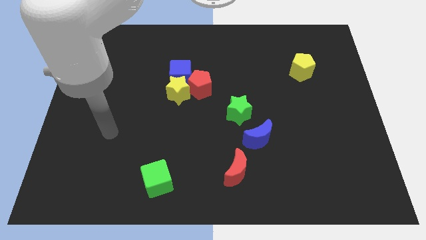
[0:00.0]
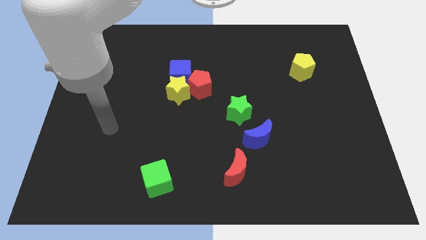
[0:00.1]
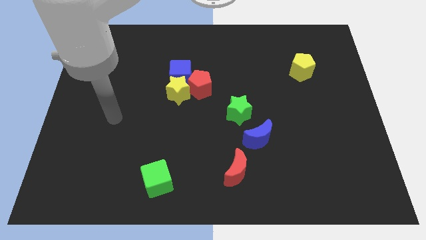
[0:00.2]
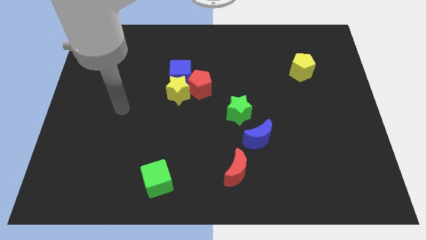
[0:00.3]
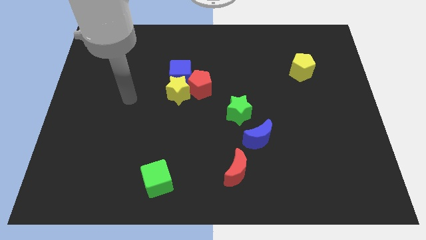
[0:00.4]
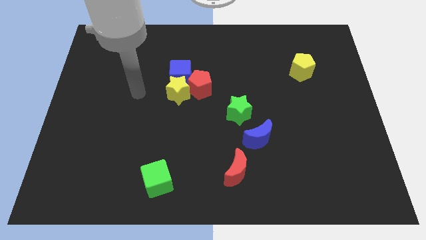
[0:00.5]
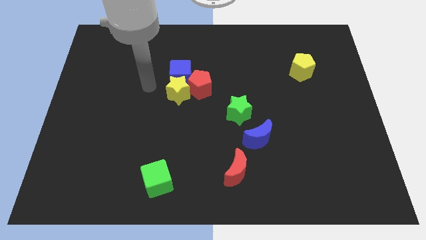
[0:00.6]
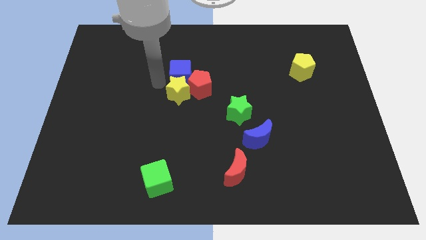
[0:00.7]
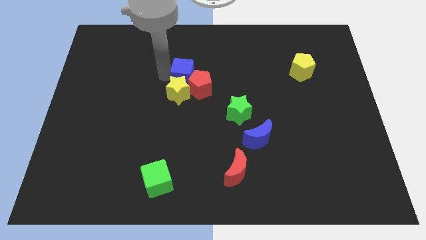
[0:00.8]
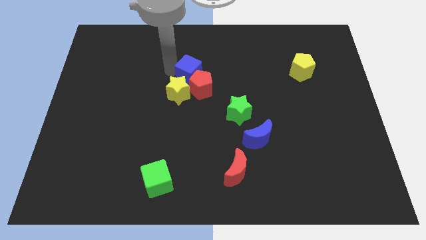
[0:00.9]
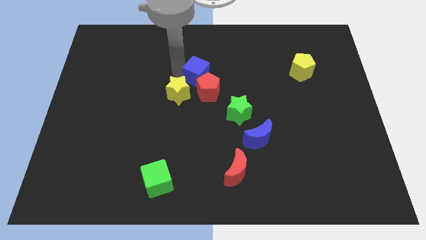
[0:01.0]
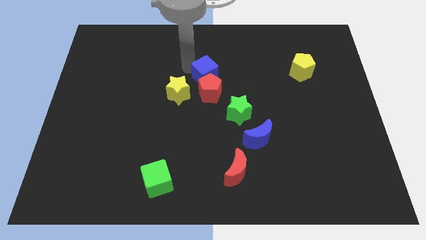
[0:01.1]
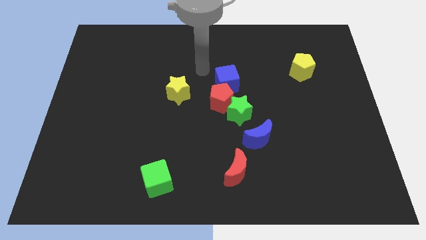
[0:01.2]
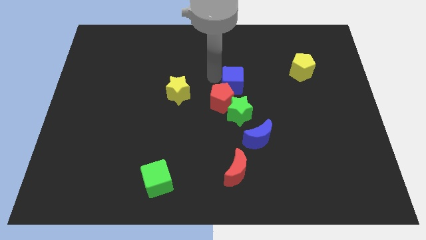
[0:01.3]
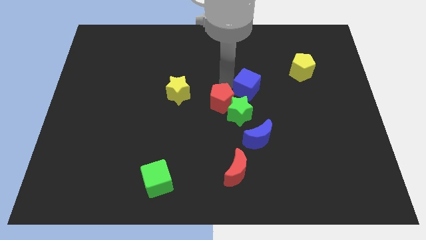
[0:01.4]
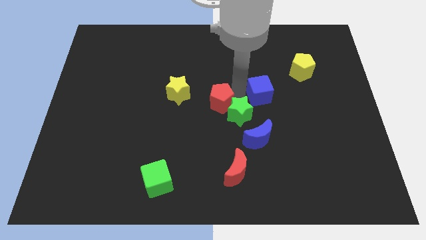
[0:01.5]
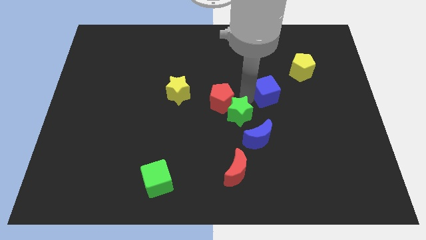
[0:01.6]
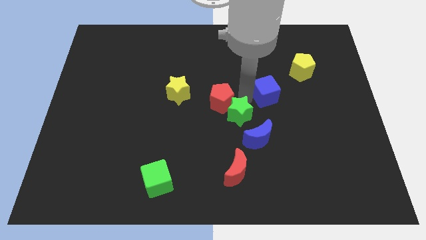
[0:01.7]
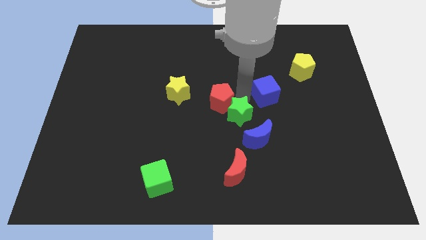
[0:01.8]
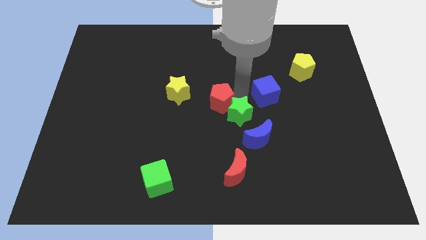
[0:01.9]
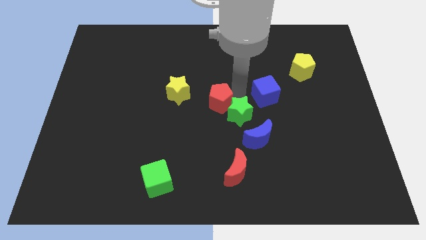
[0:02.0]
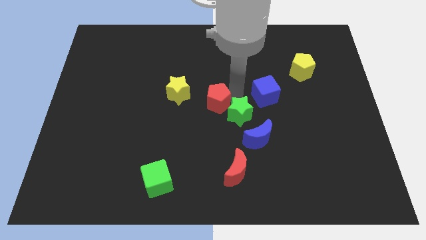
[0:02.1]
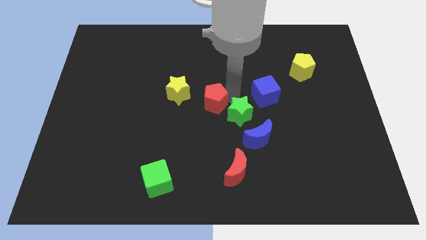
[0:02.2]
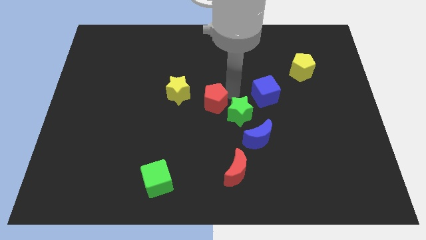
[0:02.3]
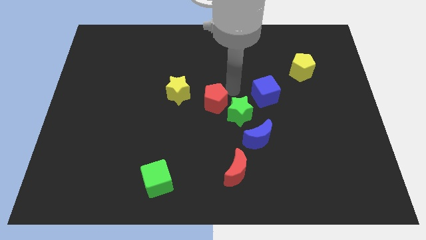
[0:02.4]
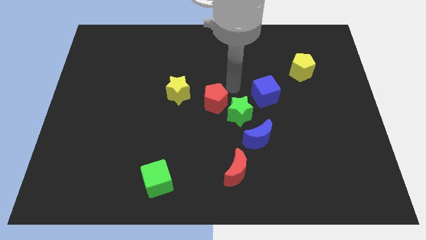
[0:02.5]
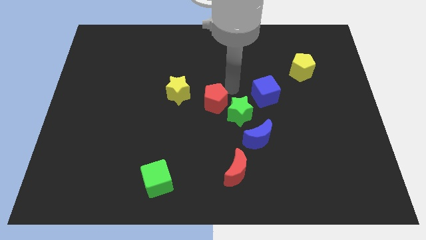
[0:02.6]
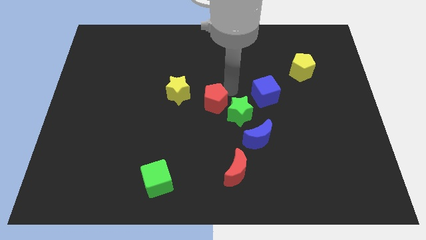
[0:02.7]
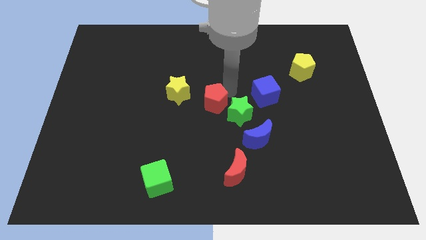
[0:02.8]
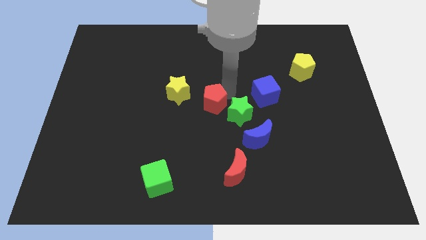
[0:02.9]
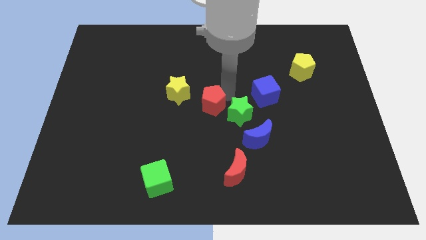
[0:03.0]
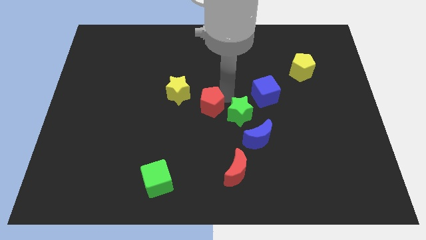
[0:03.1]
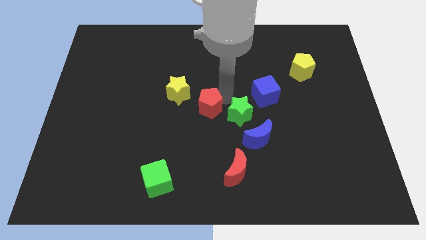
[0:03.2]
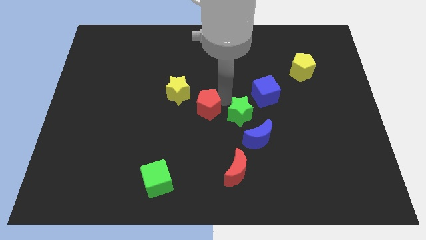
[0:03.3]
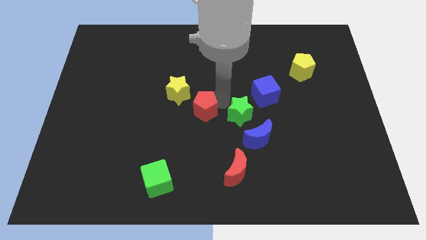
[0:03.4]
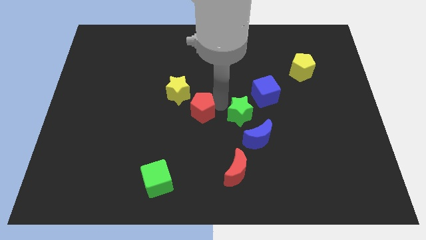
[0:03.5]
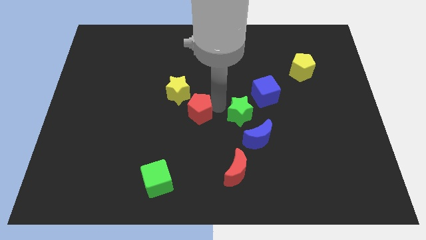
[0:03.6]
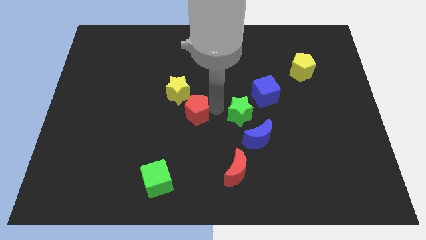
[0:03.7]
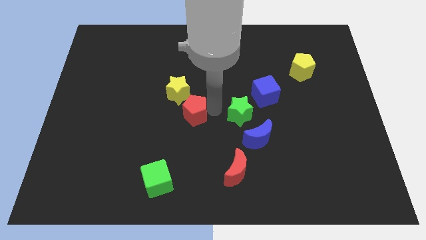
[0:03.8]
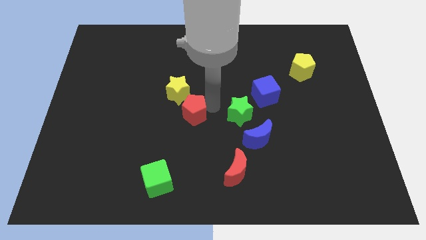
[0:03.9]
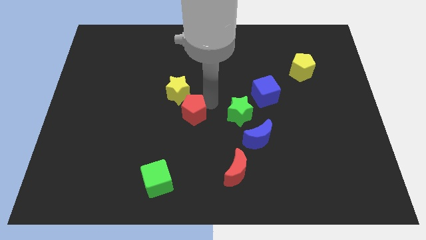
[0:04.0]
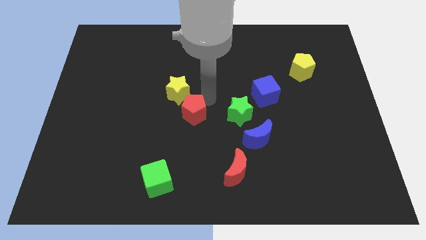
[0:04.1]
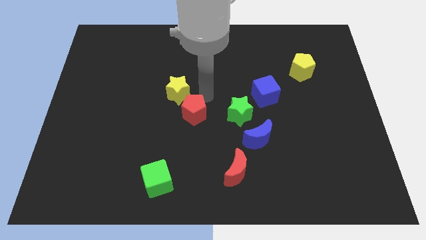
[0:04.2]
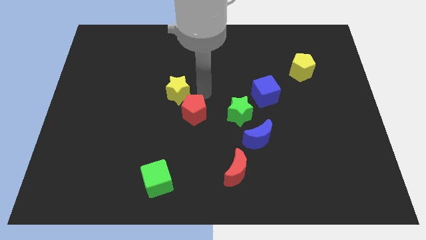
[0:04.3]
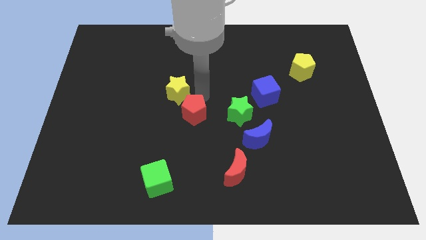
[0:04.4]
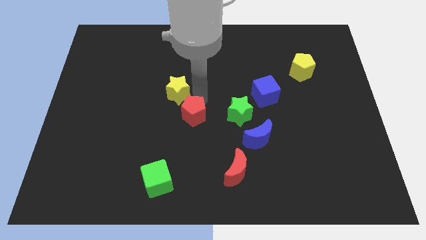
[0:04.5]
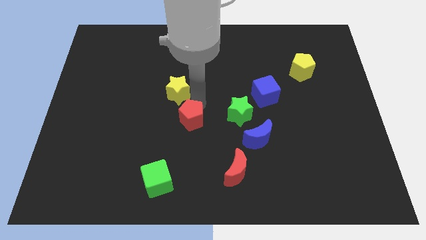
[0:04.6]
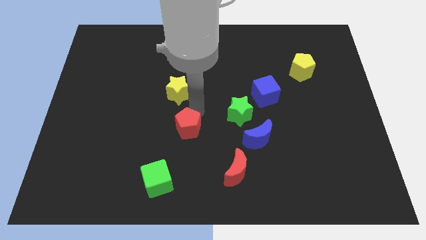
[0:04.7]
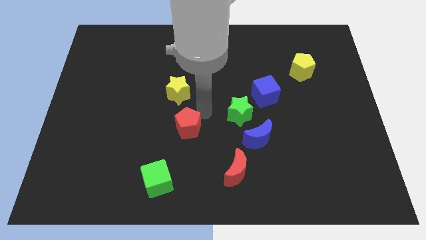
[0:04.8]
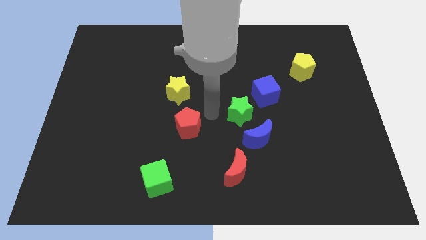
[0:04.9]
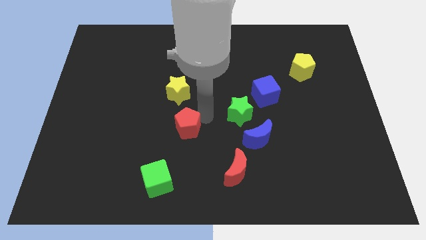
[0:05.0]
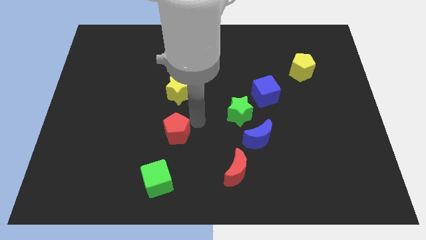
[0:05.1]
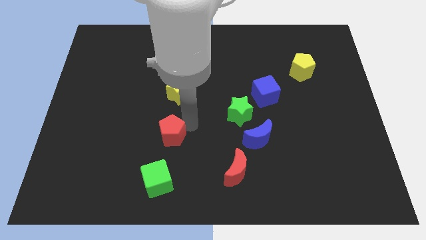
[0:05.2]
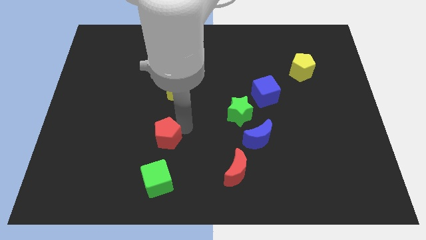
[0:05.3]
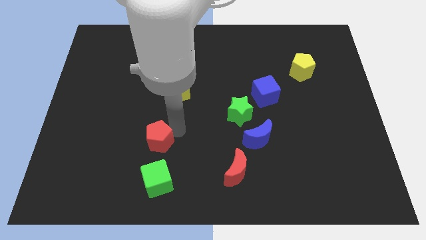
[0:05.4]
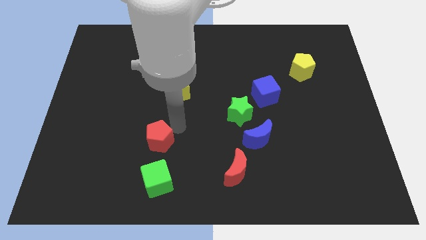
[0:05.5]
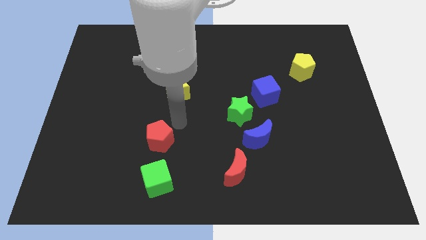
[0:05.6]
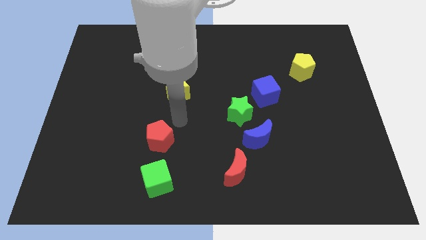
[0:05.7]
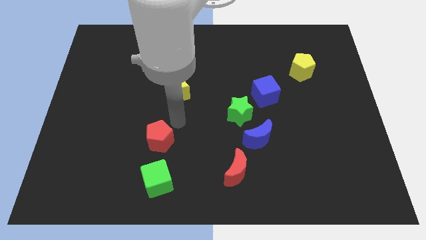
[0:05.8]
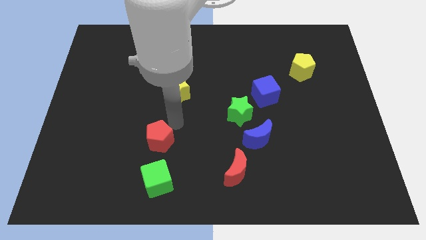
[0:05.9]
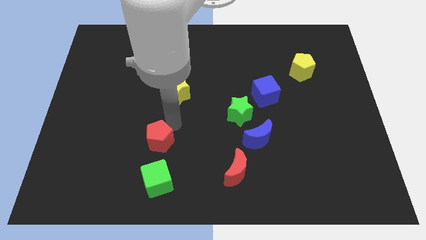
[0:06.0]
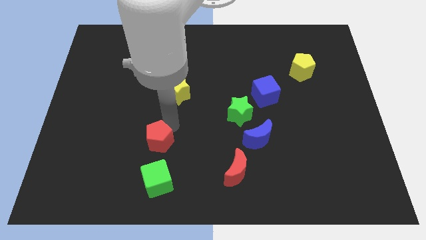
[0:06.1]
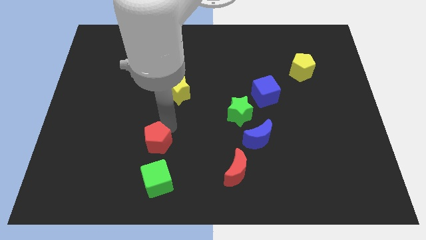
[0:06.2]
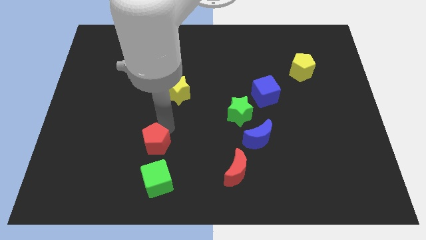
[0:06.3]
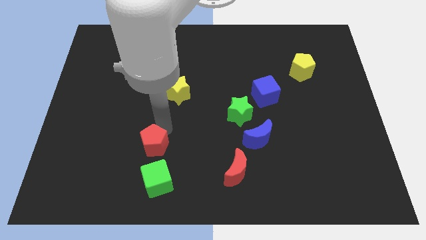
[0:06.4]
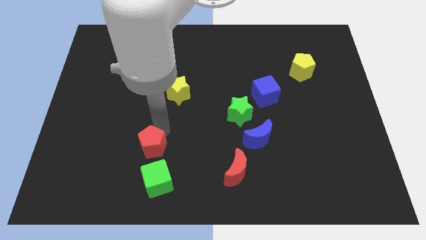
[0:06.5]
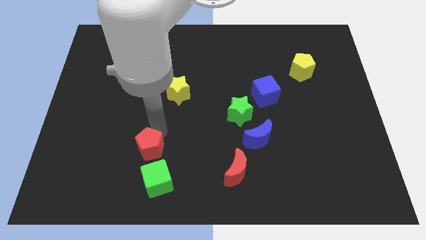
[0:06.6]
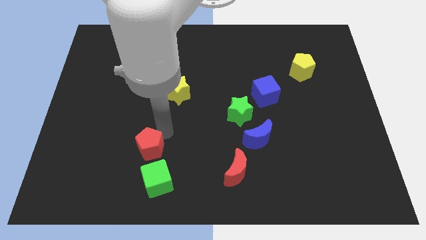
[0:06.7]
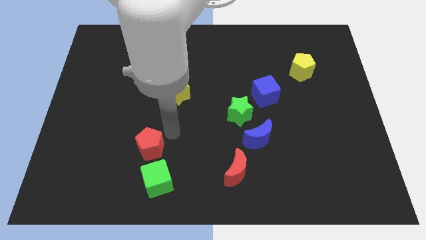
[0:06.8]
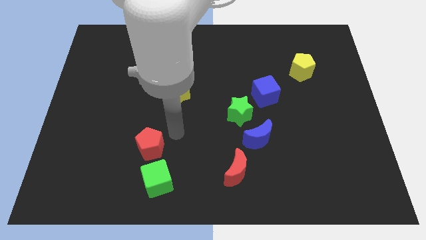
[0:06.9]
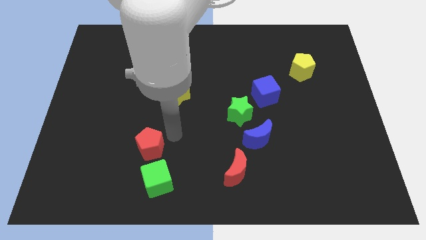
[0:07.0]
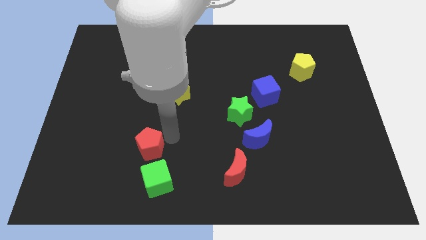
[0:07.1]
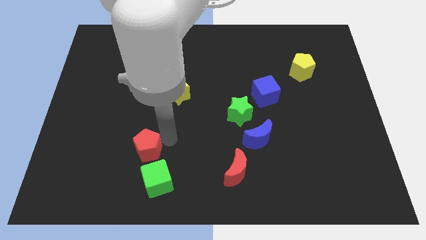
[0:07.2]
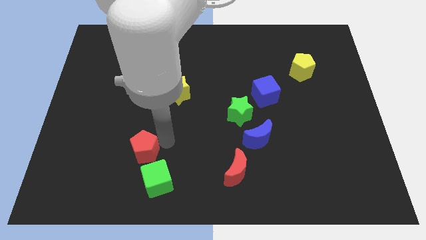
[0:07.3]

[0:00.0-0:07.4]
move the red pentagon downwards and to the left diagonally

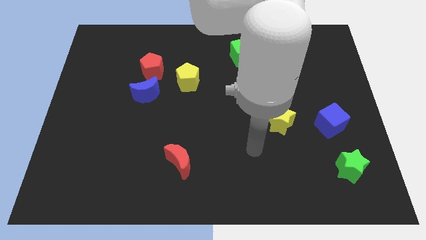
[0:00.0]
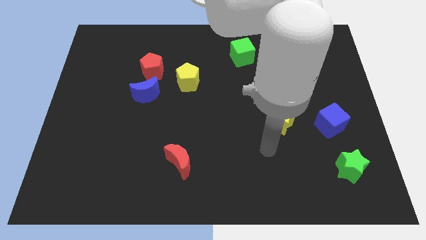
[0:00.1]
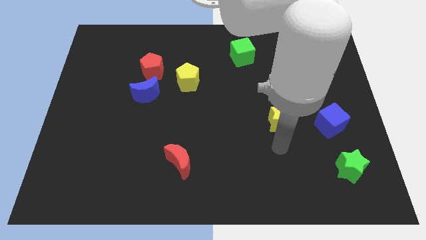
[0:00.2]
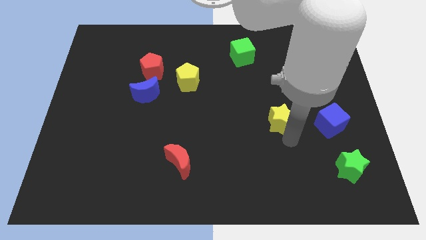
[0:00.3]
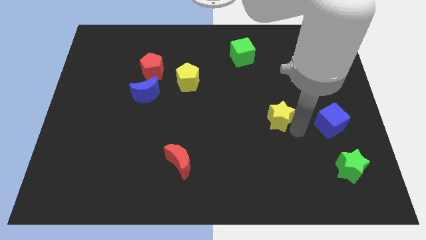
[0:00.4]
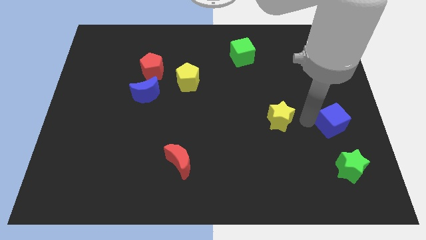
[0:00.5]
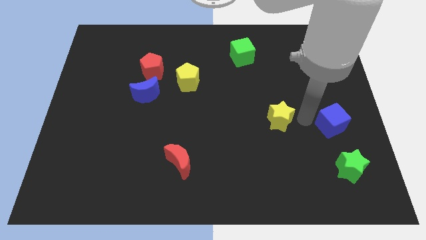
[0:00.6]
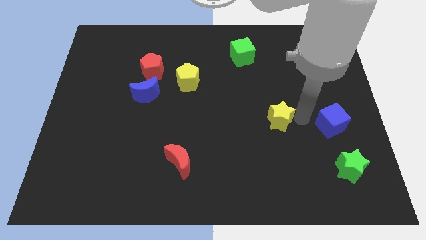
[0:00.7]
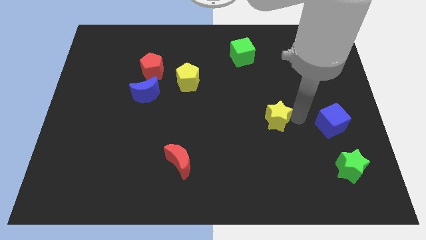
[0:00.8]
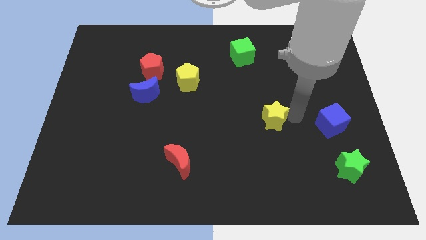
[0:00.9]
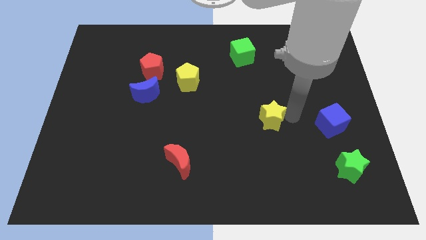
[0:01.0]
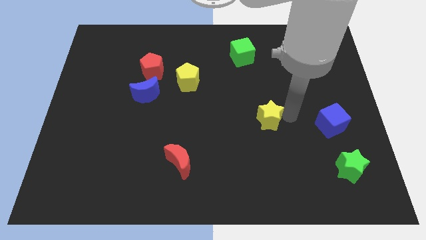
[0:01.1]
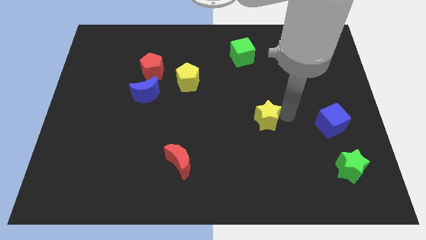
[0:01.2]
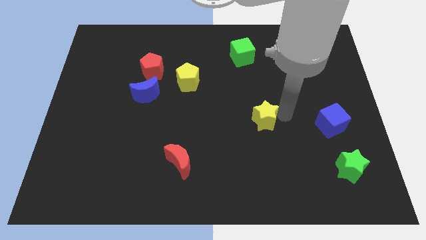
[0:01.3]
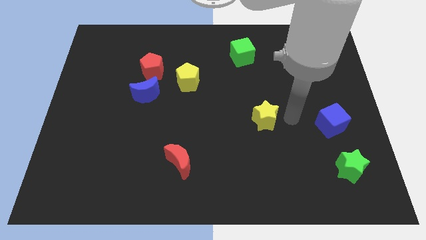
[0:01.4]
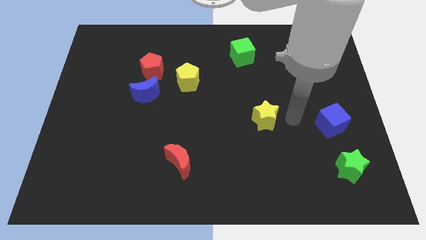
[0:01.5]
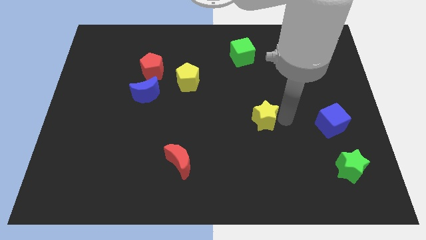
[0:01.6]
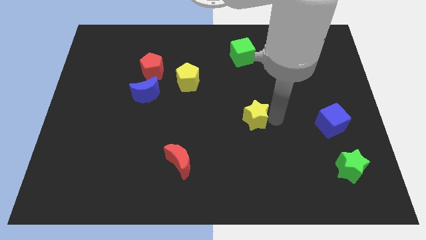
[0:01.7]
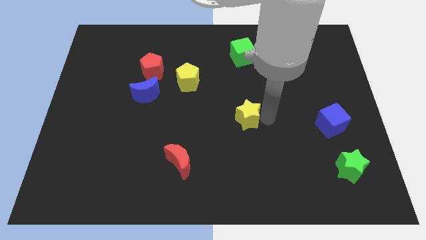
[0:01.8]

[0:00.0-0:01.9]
slightly move the yellow star to the left
